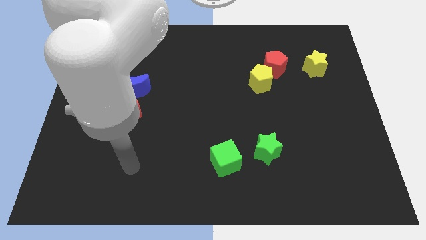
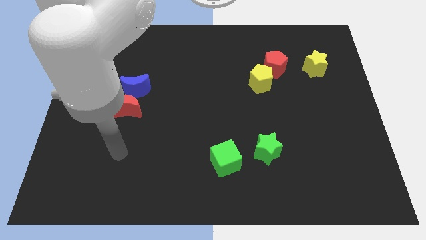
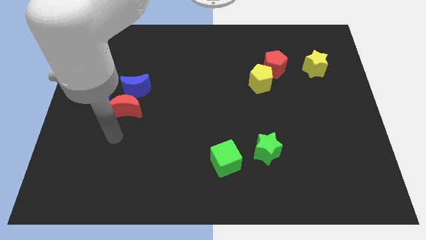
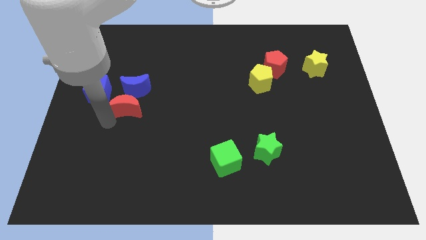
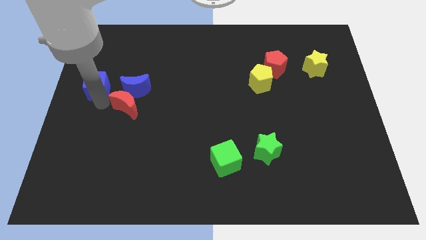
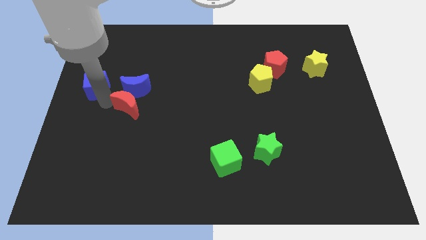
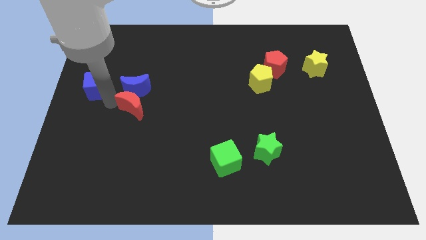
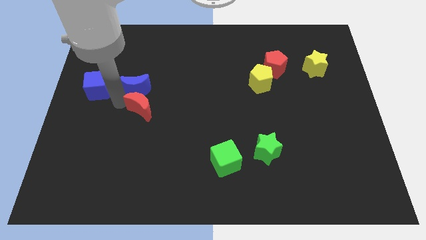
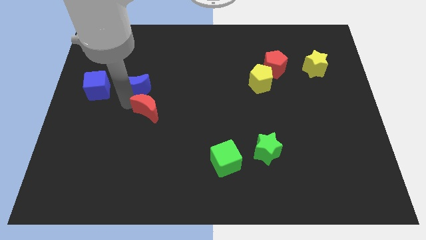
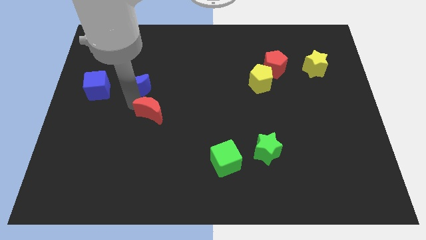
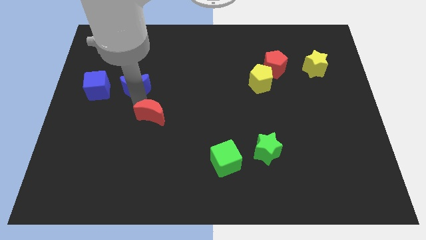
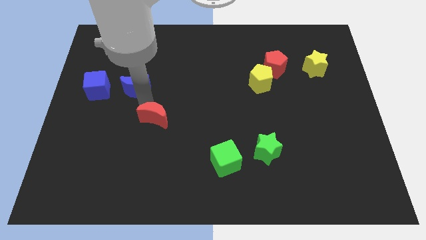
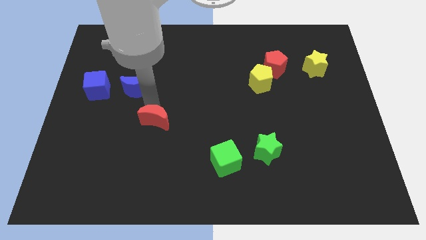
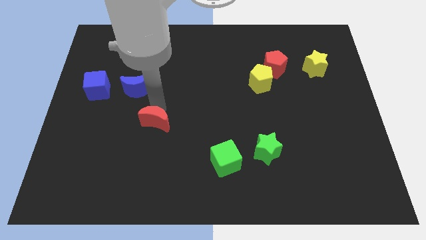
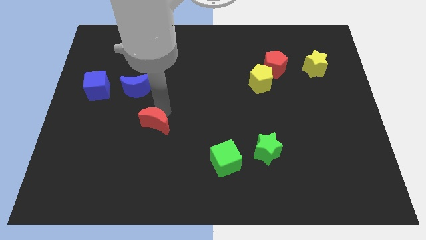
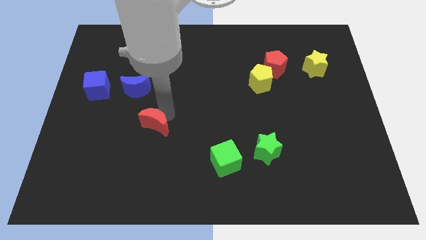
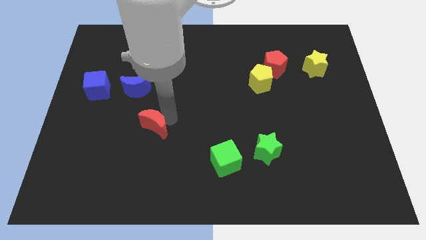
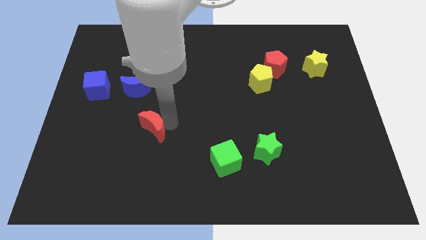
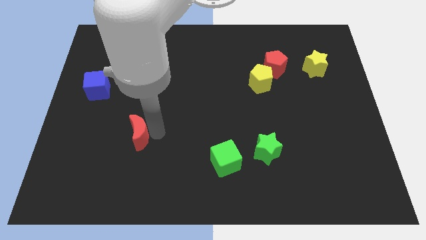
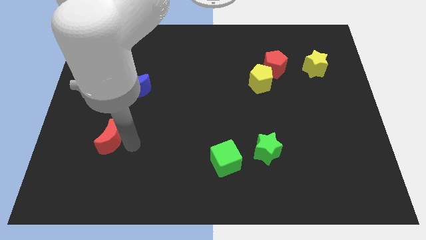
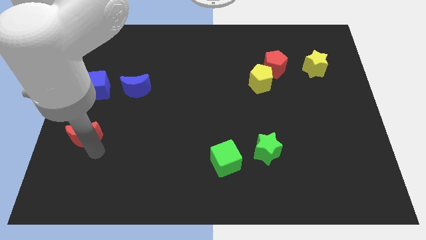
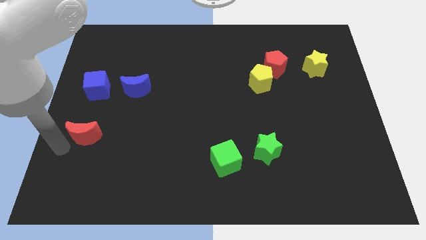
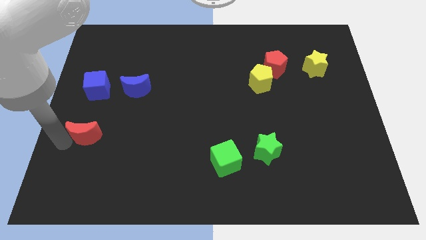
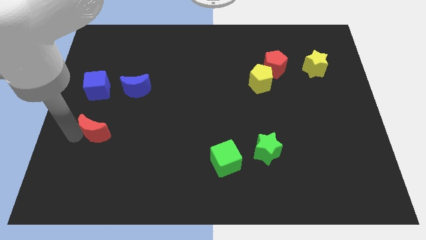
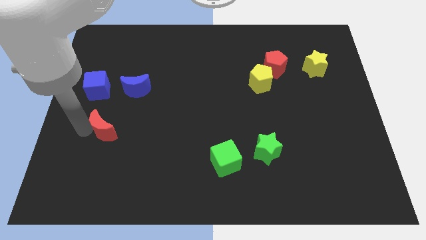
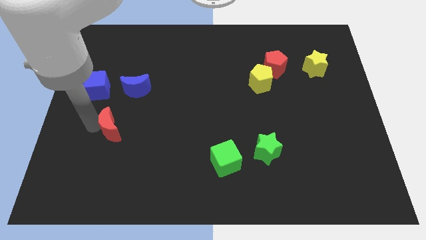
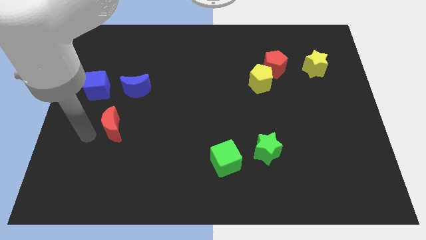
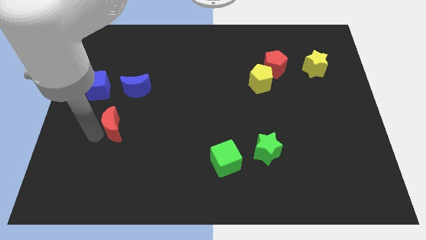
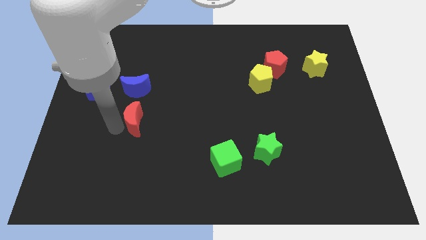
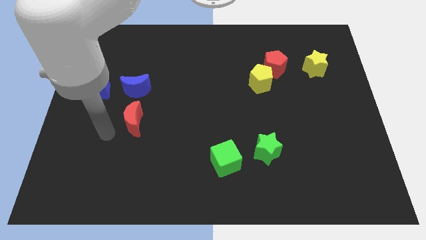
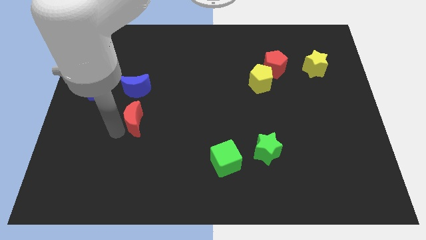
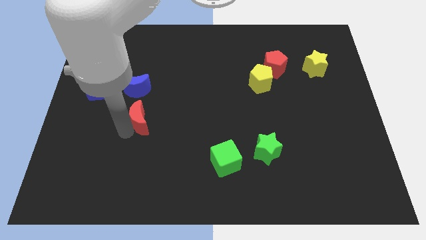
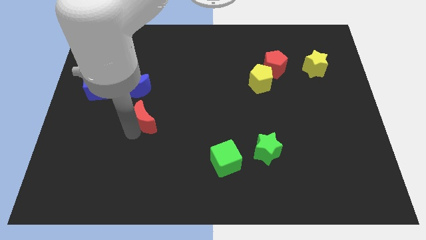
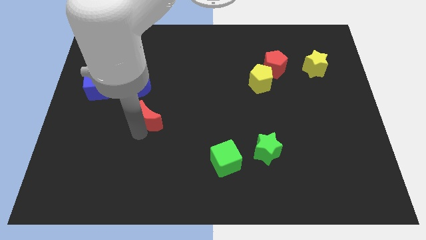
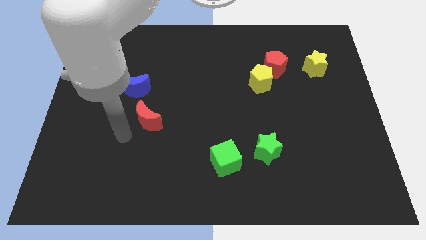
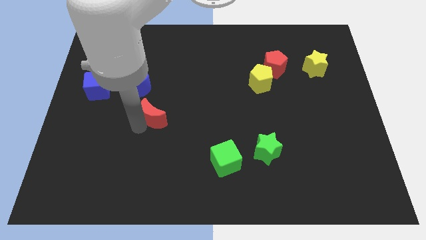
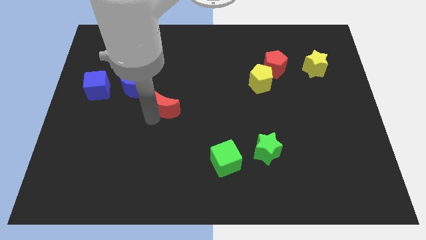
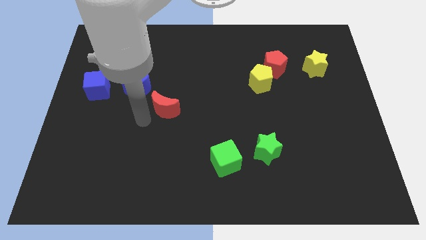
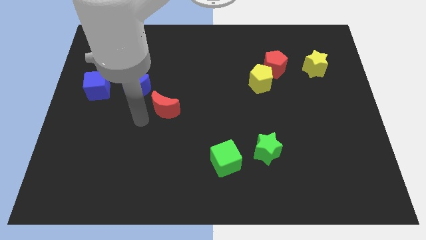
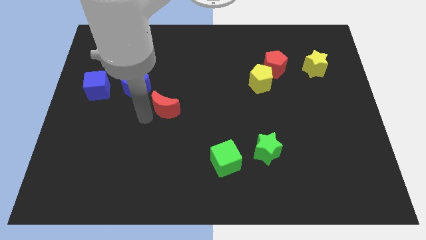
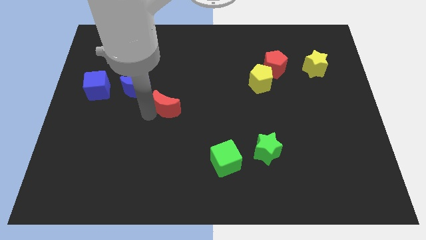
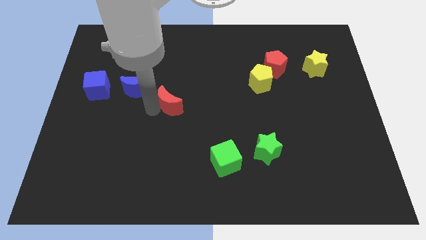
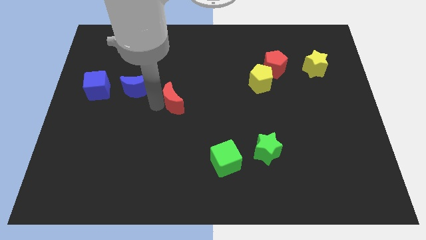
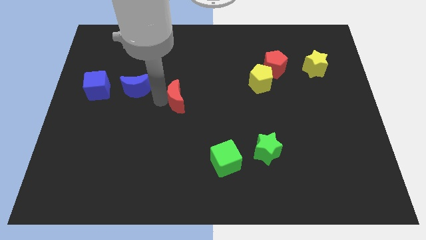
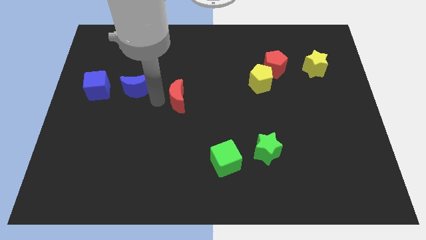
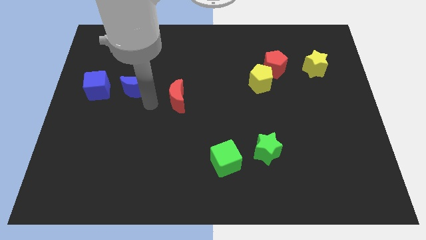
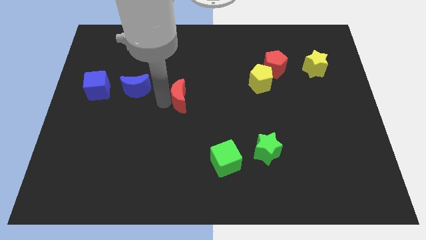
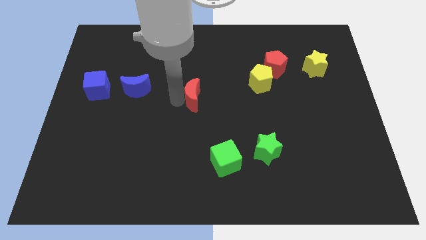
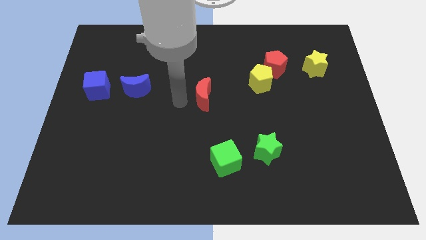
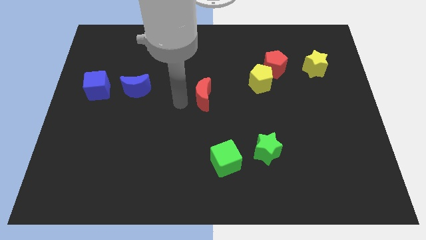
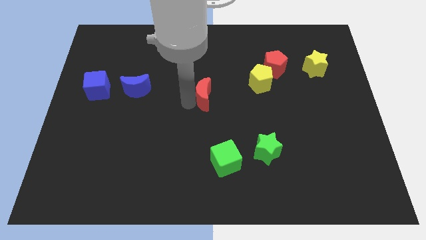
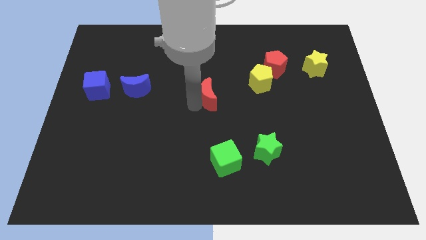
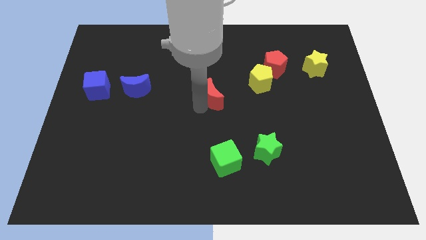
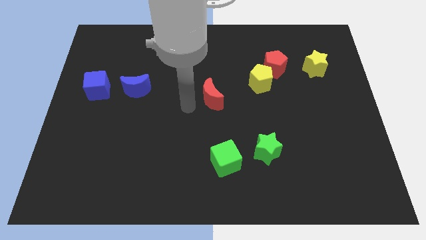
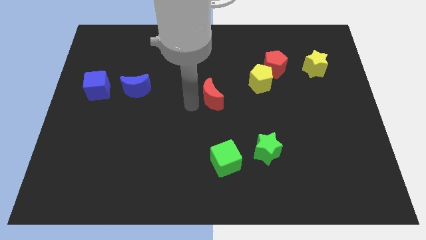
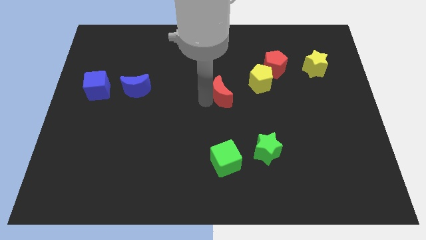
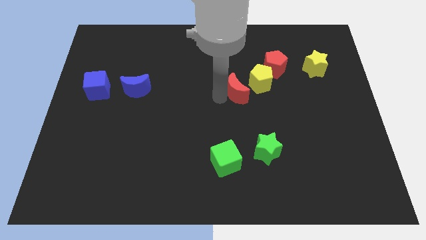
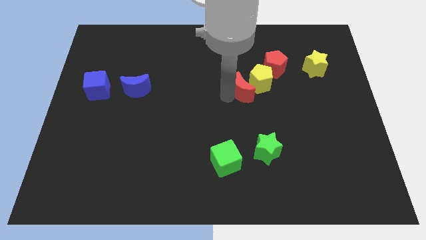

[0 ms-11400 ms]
slide the red moon to the bottom left side of the red pentagon
